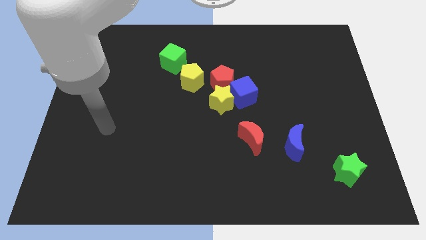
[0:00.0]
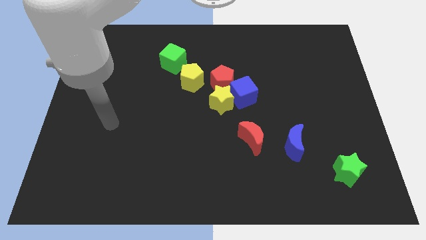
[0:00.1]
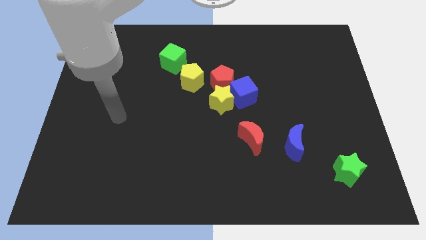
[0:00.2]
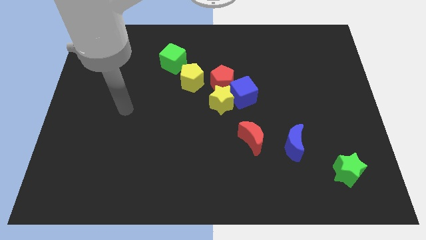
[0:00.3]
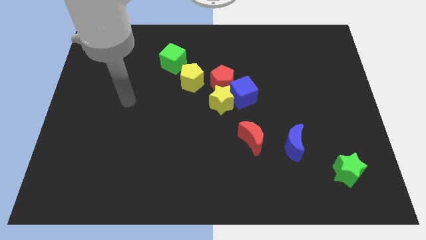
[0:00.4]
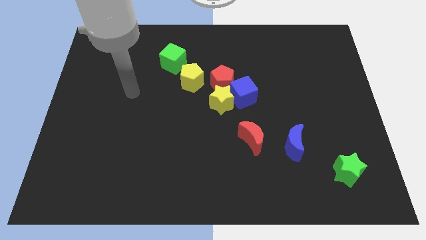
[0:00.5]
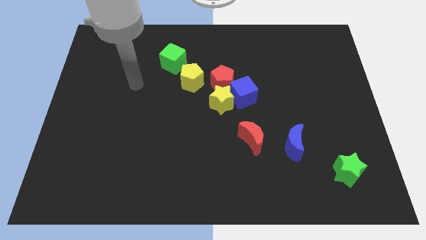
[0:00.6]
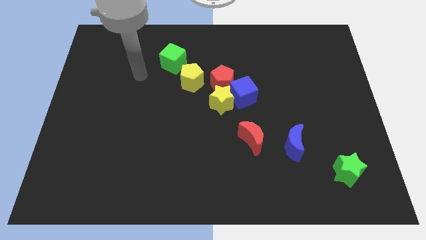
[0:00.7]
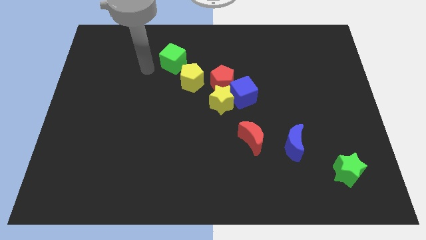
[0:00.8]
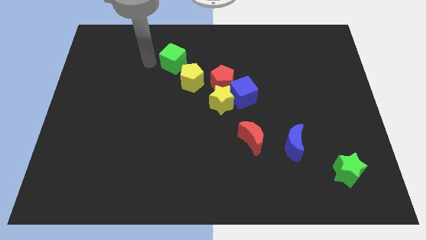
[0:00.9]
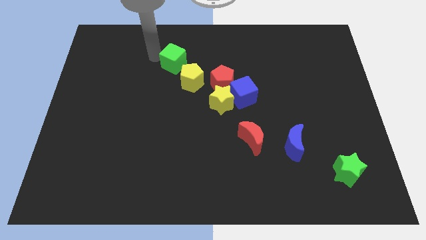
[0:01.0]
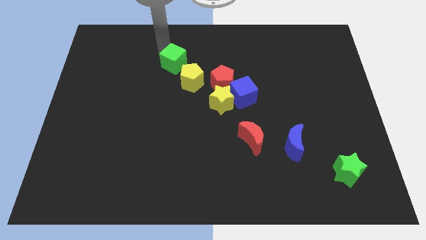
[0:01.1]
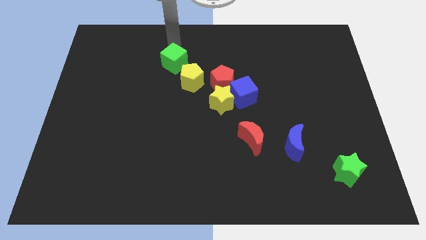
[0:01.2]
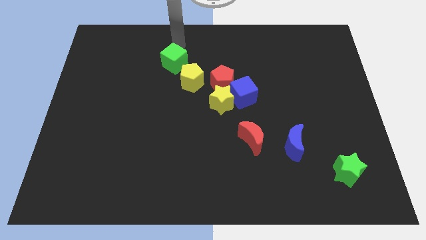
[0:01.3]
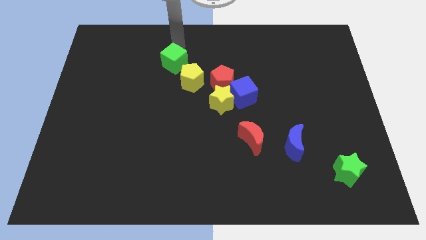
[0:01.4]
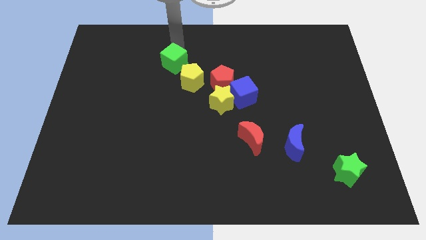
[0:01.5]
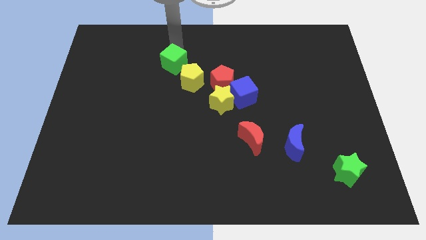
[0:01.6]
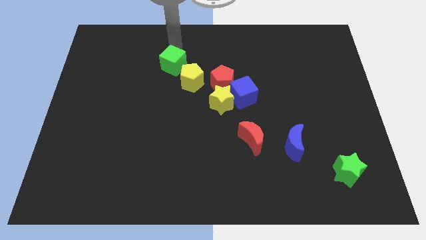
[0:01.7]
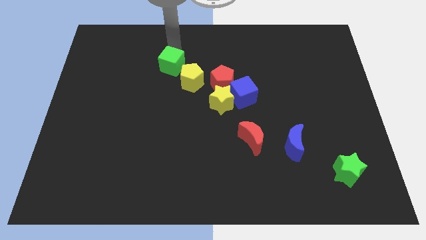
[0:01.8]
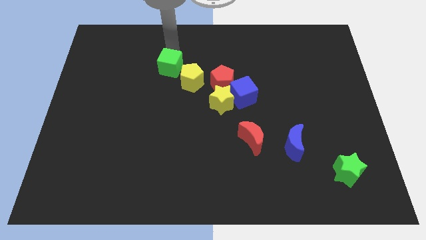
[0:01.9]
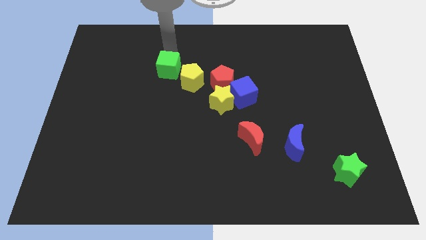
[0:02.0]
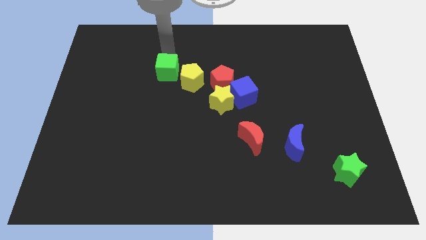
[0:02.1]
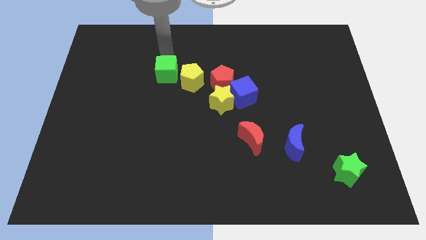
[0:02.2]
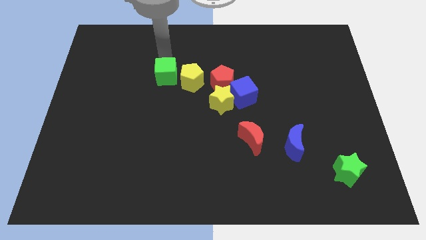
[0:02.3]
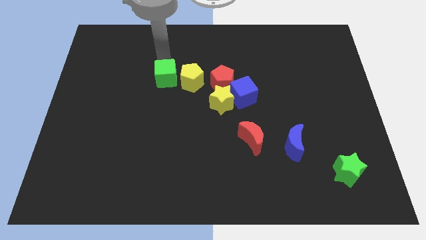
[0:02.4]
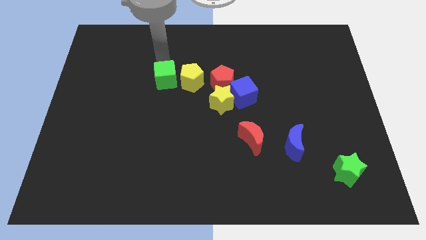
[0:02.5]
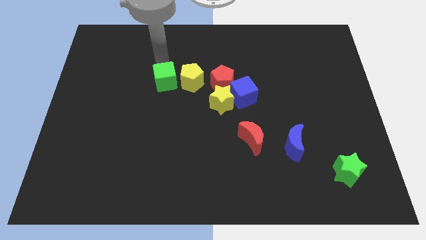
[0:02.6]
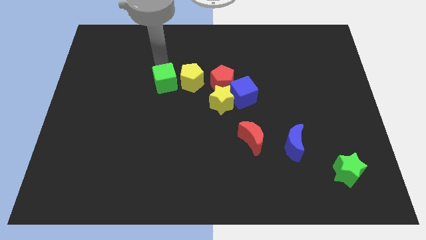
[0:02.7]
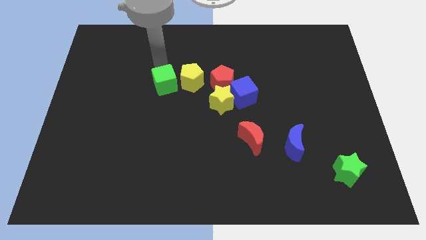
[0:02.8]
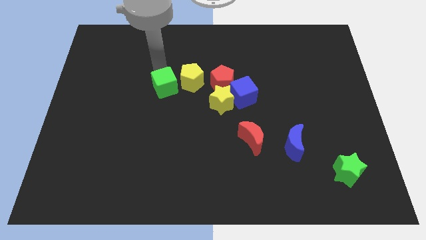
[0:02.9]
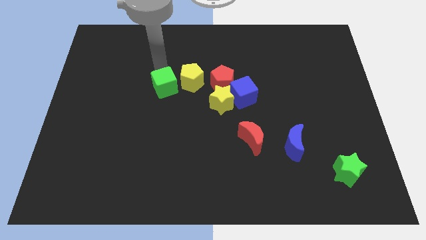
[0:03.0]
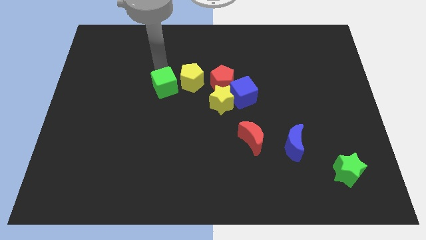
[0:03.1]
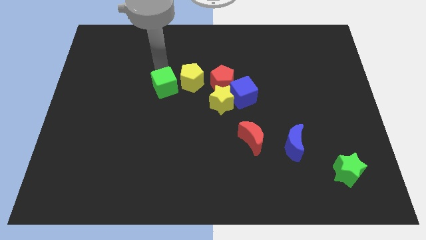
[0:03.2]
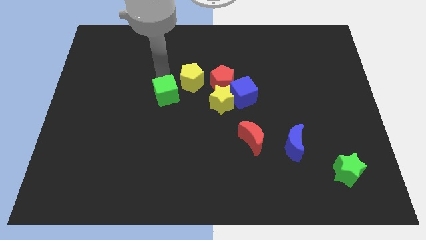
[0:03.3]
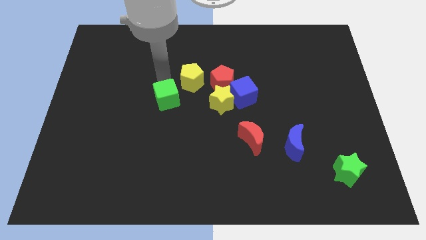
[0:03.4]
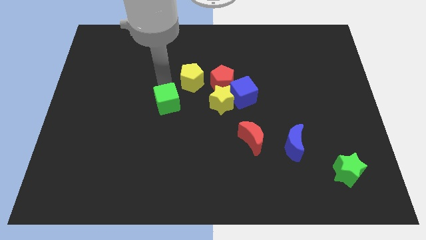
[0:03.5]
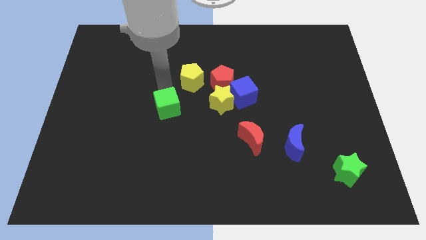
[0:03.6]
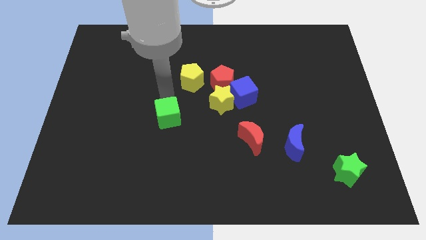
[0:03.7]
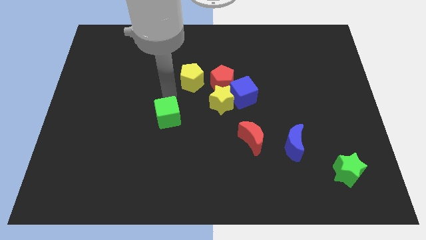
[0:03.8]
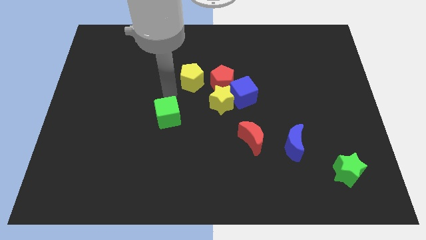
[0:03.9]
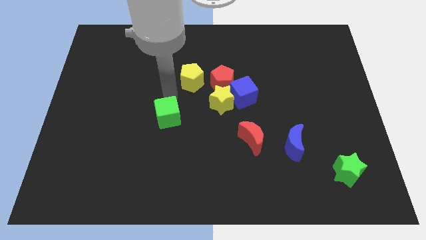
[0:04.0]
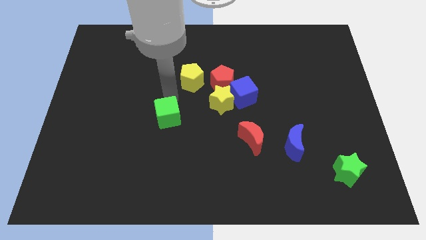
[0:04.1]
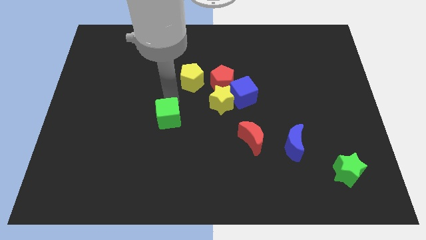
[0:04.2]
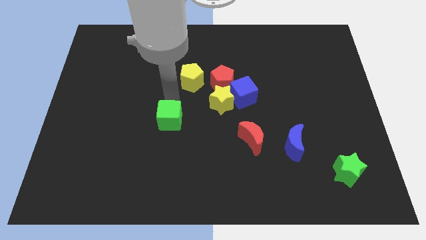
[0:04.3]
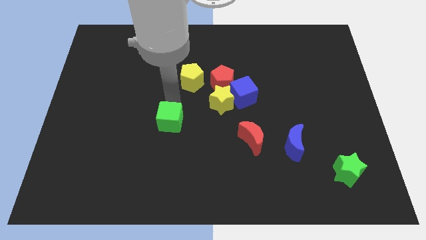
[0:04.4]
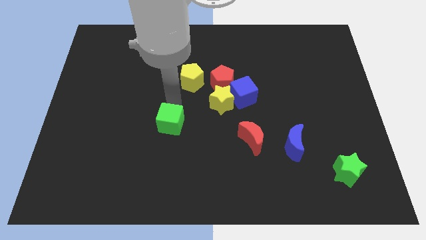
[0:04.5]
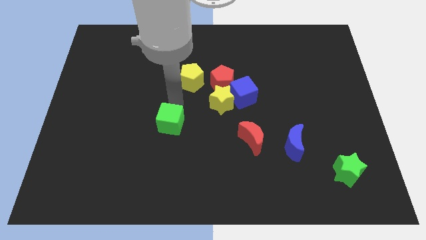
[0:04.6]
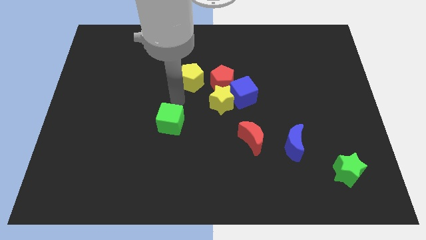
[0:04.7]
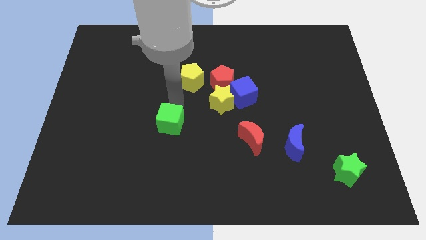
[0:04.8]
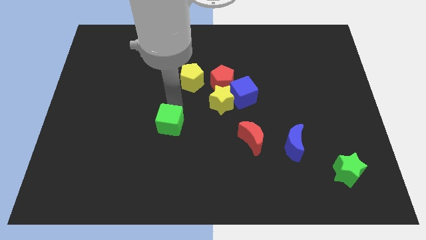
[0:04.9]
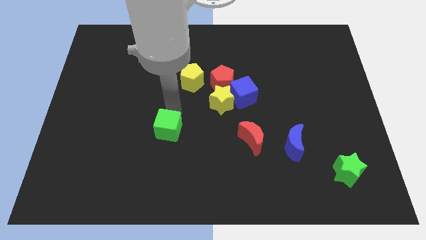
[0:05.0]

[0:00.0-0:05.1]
slide the green cube downwards

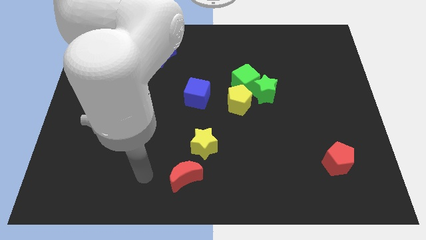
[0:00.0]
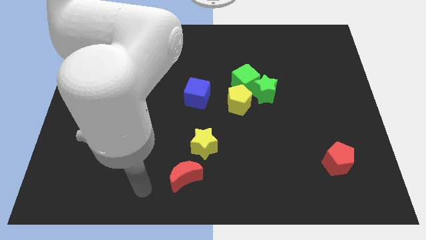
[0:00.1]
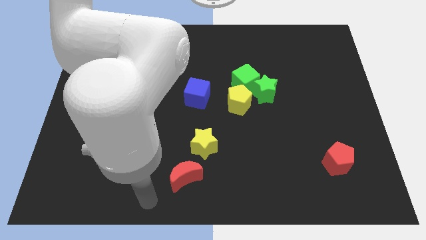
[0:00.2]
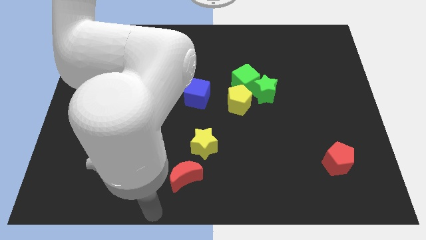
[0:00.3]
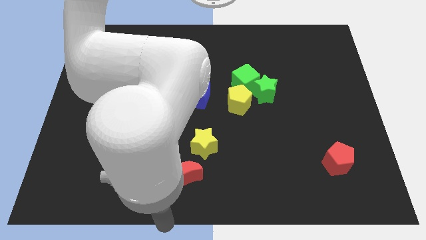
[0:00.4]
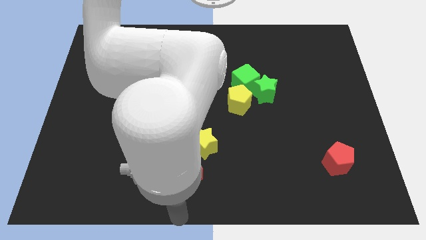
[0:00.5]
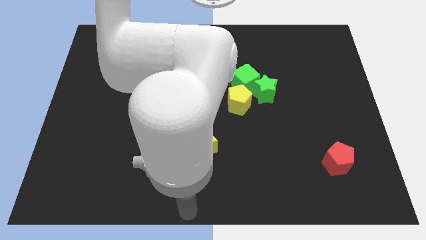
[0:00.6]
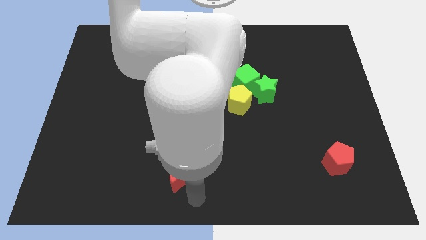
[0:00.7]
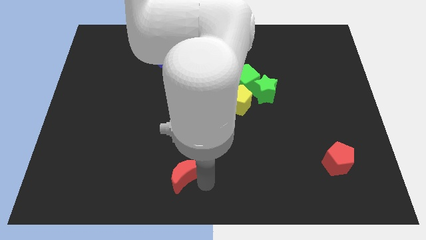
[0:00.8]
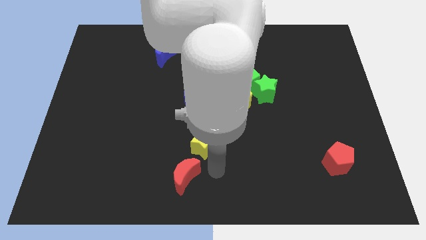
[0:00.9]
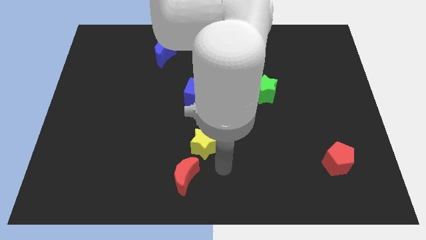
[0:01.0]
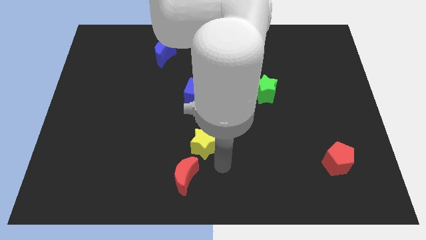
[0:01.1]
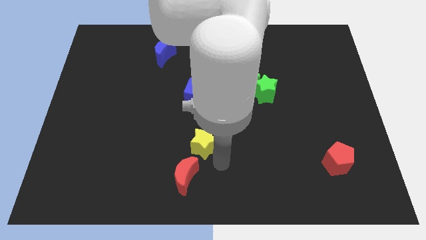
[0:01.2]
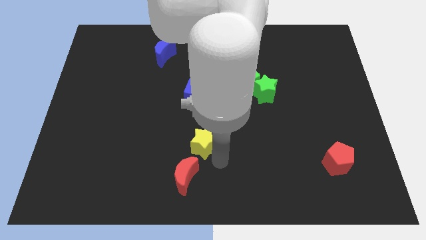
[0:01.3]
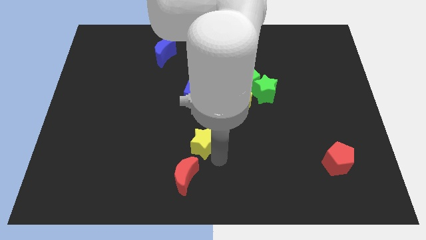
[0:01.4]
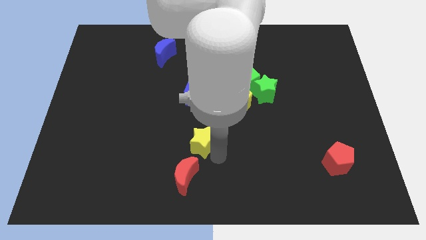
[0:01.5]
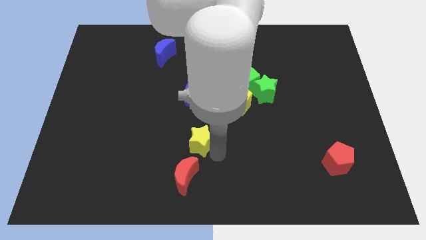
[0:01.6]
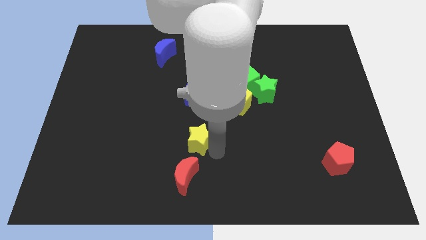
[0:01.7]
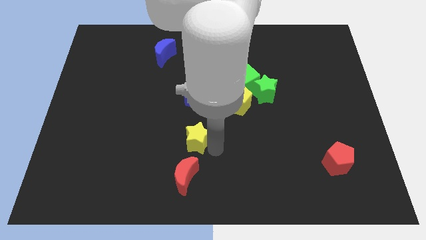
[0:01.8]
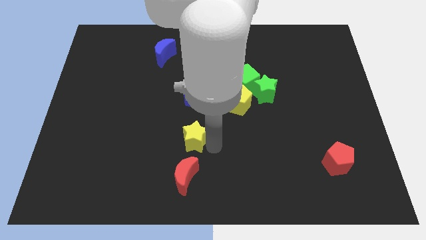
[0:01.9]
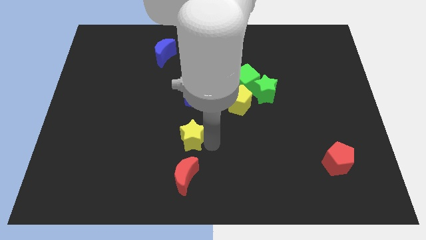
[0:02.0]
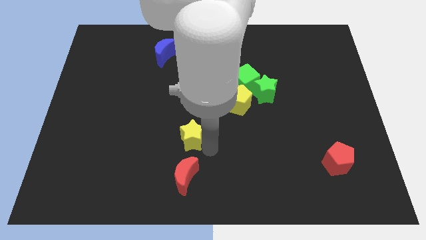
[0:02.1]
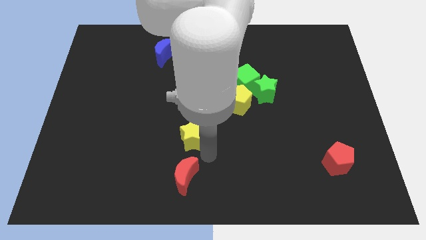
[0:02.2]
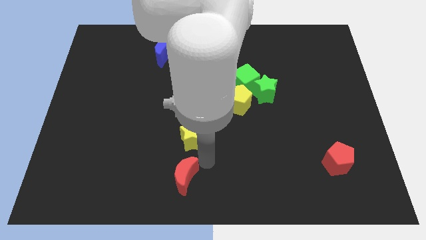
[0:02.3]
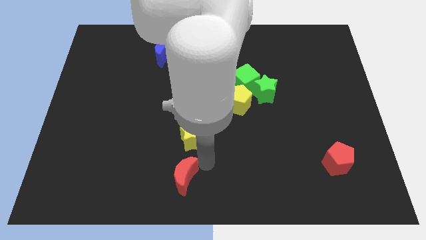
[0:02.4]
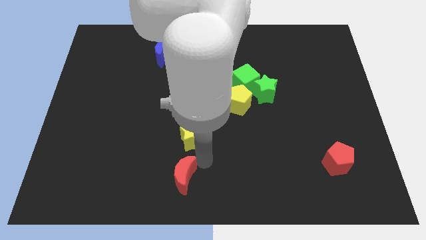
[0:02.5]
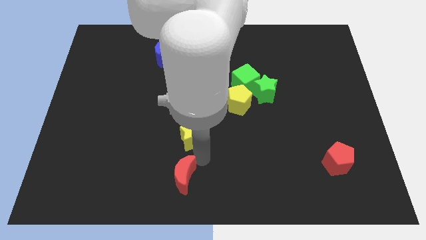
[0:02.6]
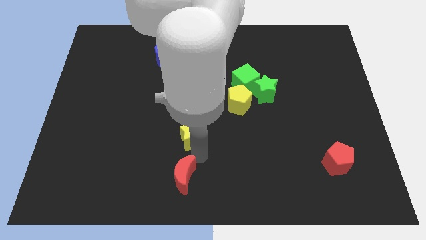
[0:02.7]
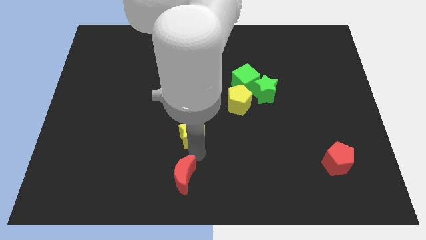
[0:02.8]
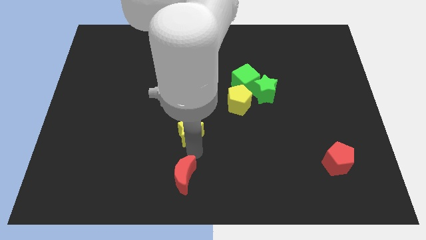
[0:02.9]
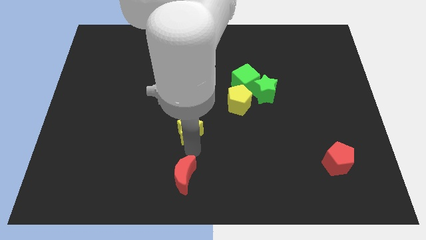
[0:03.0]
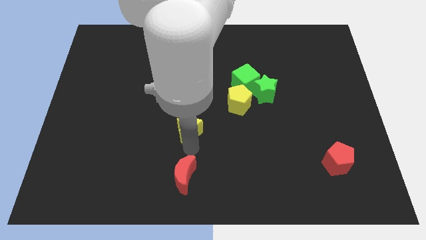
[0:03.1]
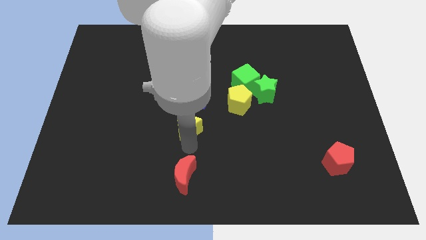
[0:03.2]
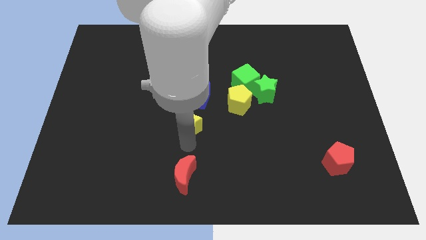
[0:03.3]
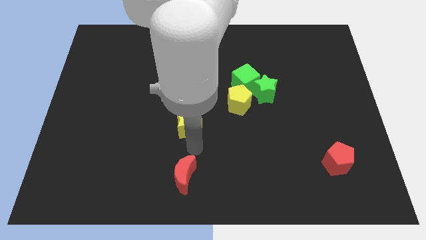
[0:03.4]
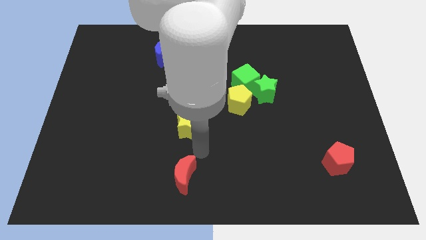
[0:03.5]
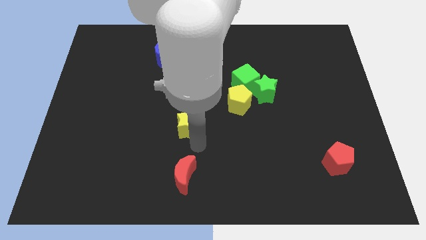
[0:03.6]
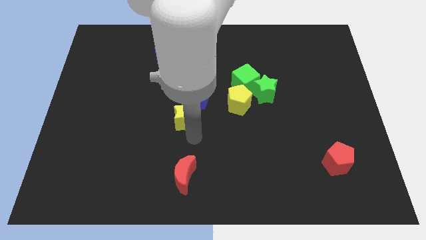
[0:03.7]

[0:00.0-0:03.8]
move the yellow star a little upwards and to the left
